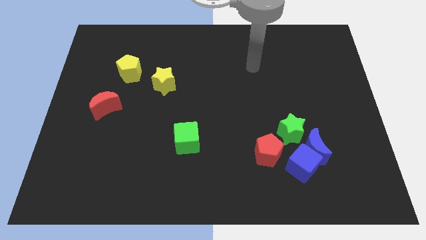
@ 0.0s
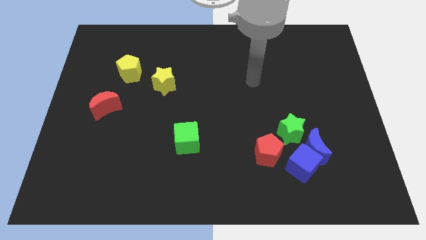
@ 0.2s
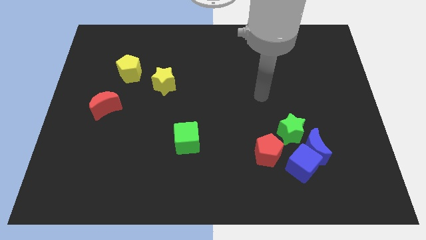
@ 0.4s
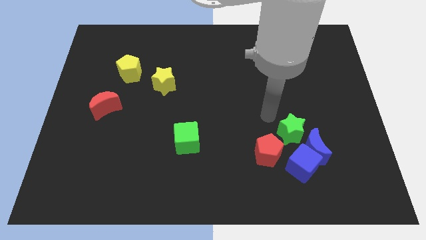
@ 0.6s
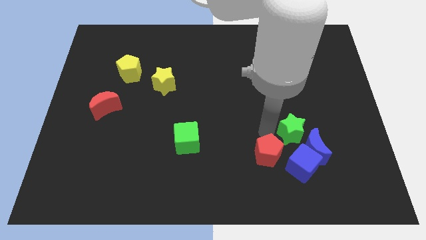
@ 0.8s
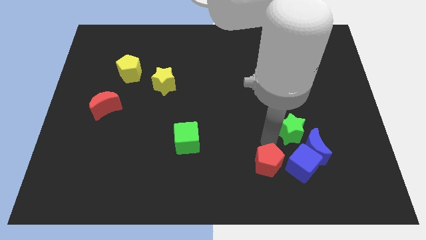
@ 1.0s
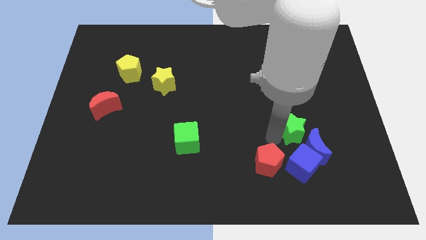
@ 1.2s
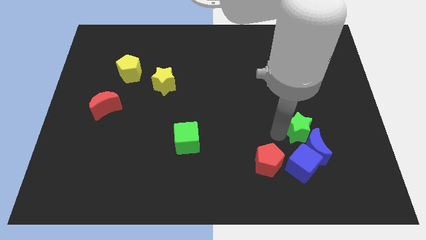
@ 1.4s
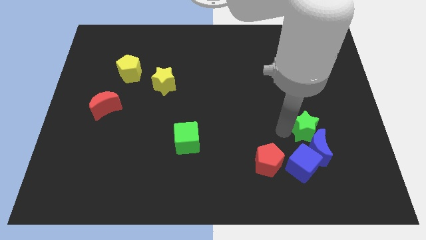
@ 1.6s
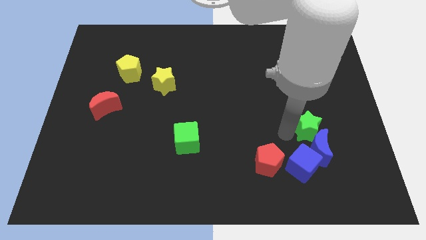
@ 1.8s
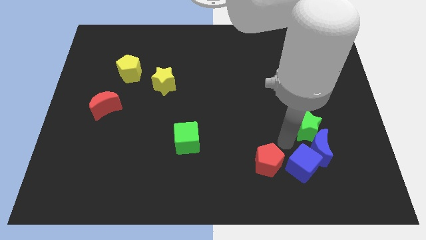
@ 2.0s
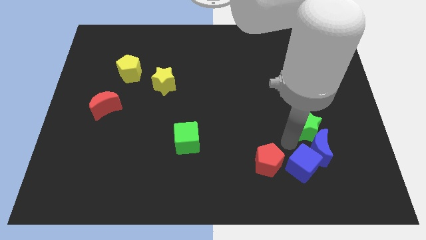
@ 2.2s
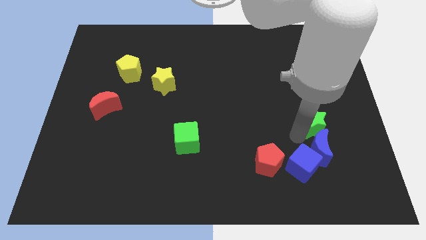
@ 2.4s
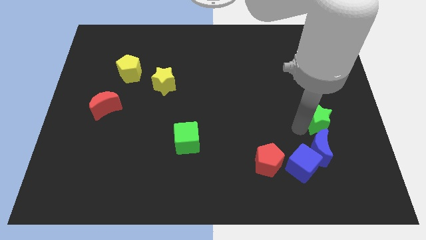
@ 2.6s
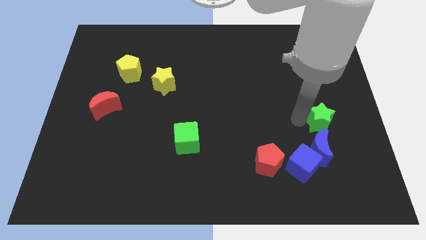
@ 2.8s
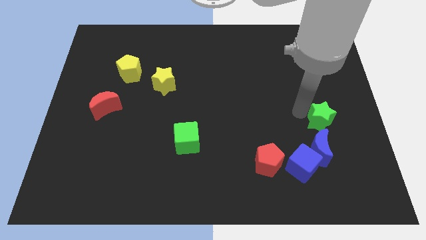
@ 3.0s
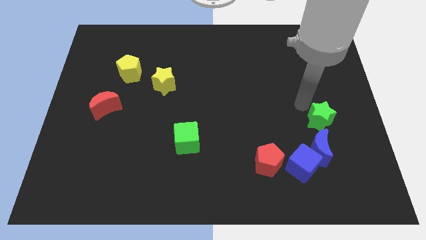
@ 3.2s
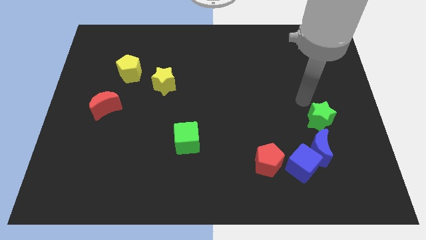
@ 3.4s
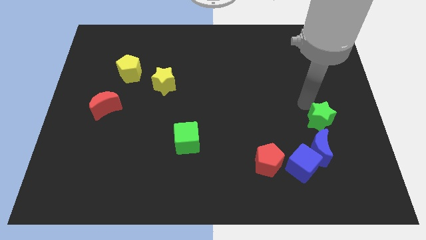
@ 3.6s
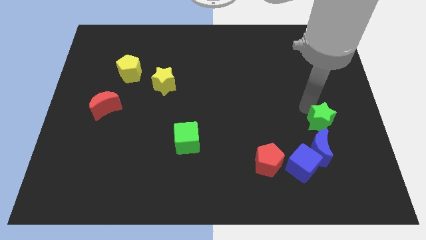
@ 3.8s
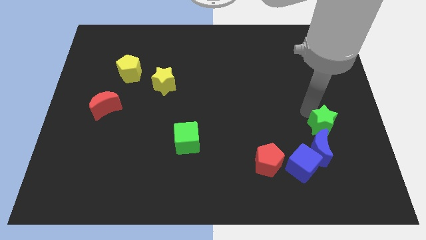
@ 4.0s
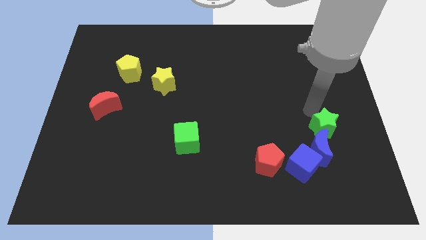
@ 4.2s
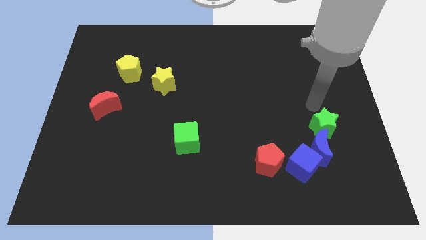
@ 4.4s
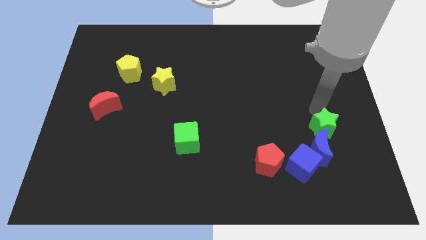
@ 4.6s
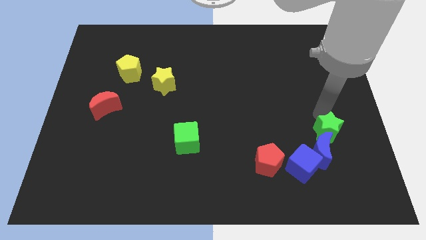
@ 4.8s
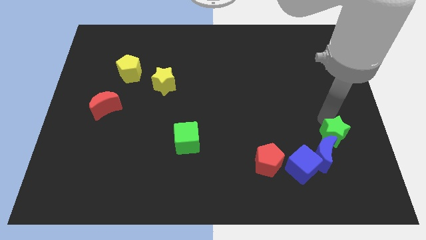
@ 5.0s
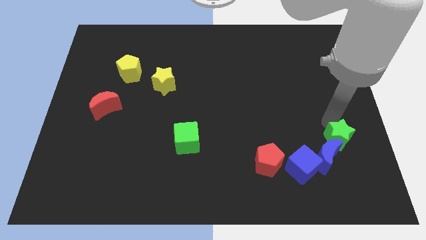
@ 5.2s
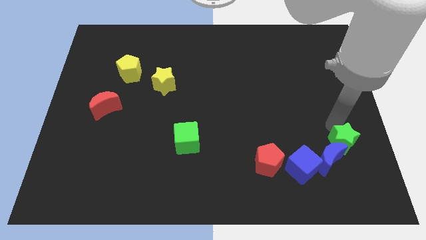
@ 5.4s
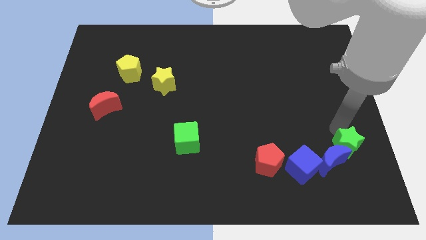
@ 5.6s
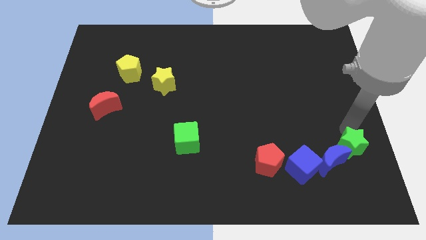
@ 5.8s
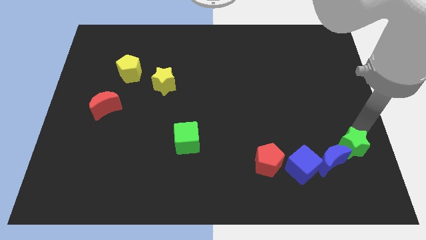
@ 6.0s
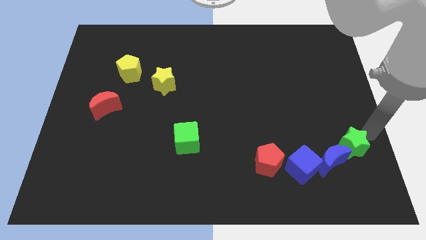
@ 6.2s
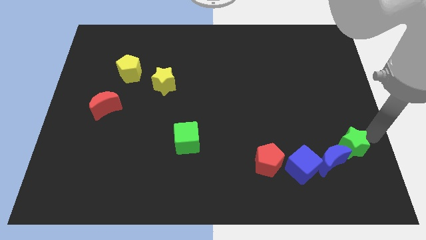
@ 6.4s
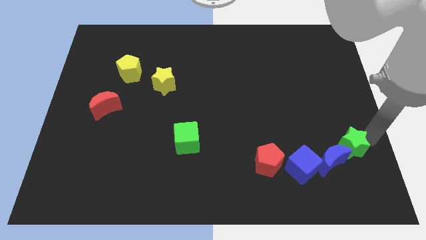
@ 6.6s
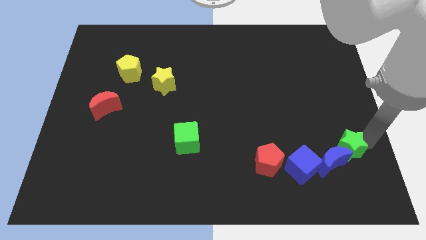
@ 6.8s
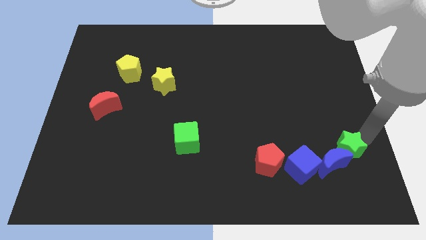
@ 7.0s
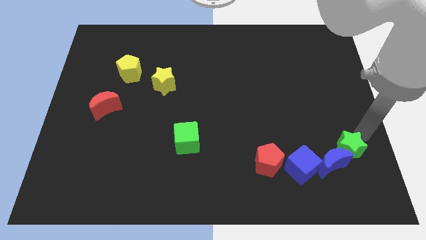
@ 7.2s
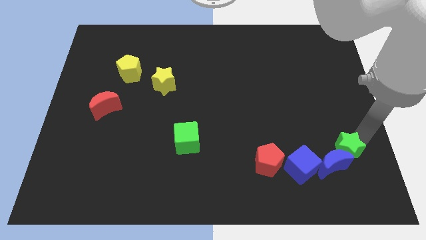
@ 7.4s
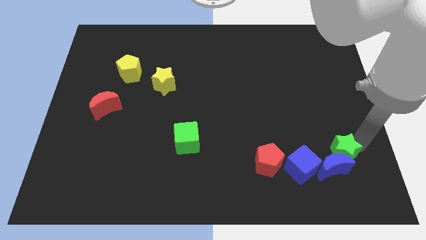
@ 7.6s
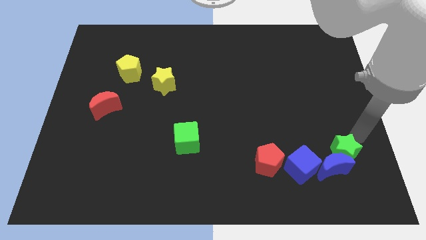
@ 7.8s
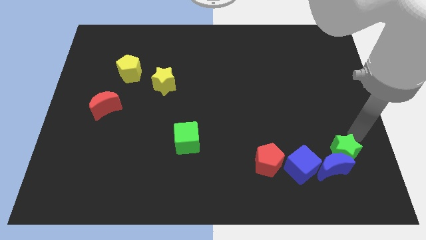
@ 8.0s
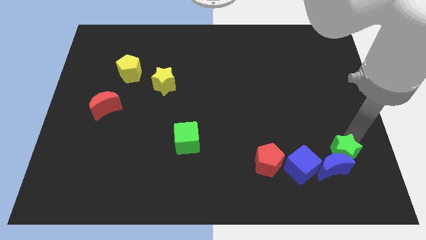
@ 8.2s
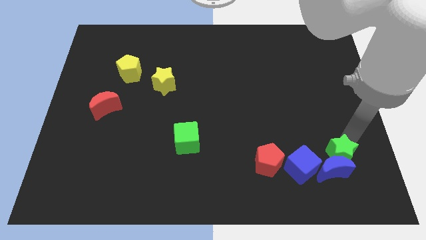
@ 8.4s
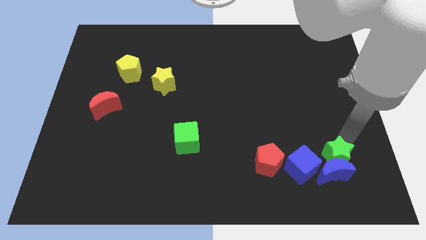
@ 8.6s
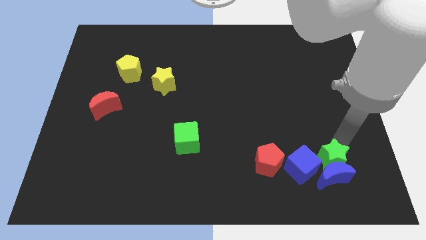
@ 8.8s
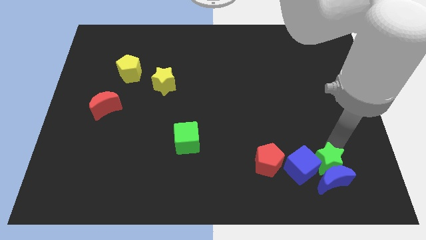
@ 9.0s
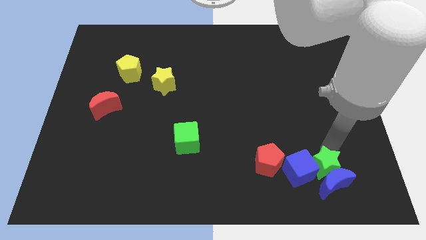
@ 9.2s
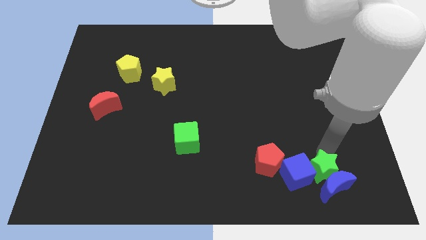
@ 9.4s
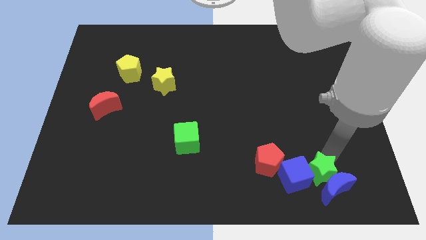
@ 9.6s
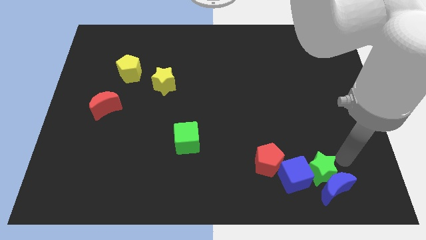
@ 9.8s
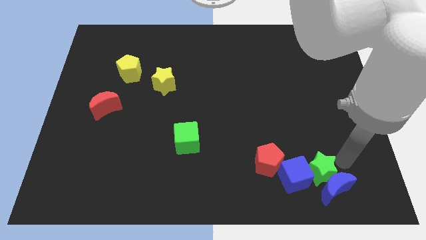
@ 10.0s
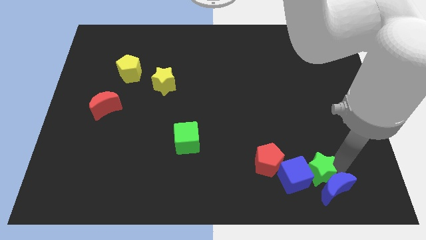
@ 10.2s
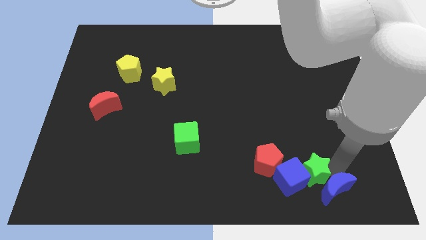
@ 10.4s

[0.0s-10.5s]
put the green star diagonally down and to the right of the red pentagon

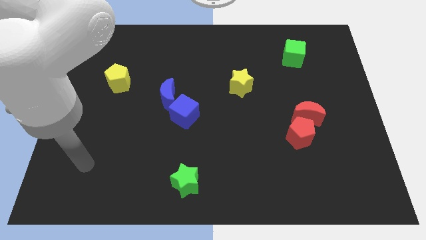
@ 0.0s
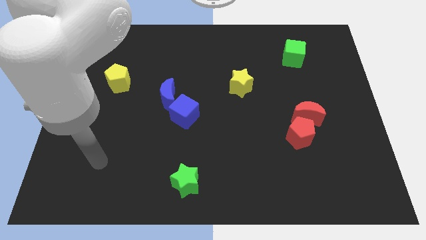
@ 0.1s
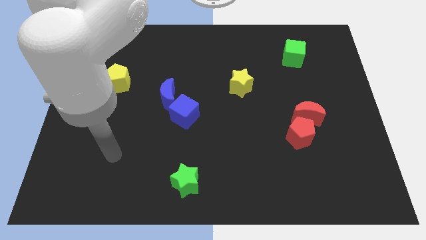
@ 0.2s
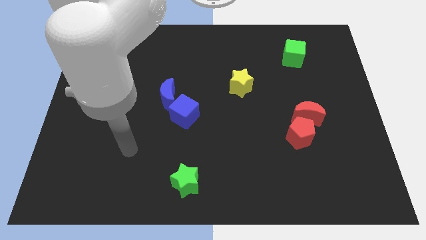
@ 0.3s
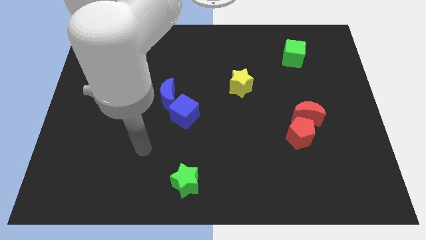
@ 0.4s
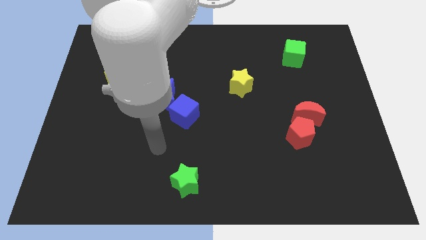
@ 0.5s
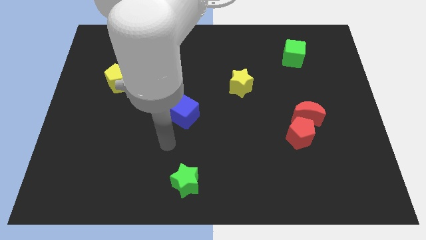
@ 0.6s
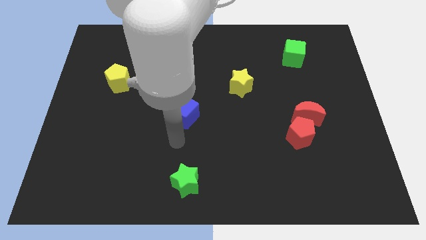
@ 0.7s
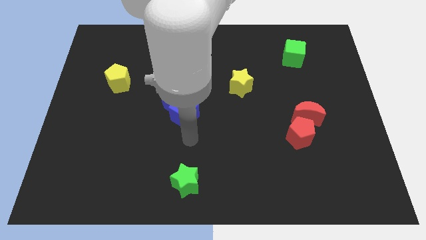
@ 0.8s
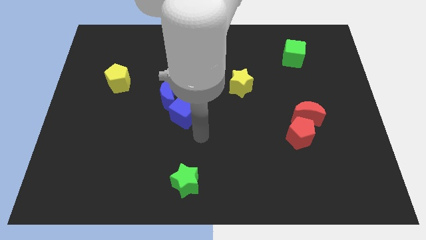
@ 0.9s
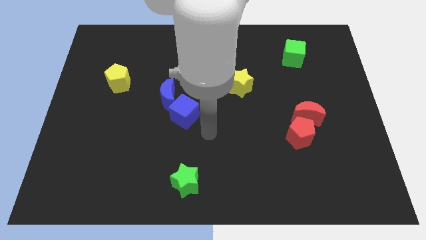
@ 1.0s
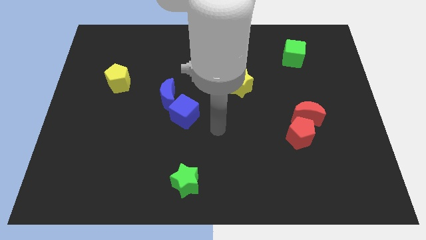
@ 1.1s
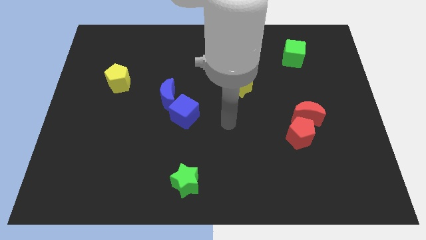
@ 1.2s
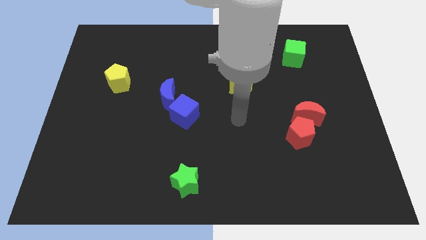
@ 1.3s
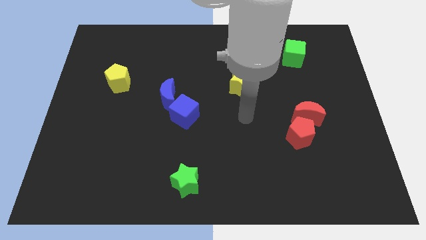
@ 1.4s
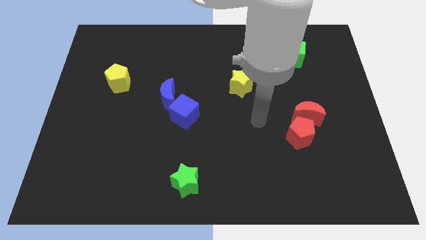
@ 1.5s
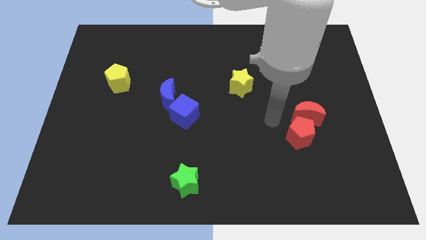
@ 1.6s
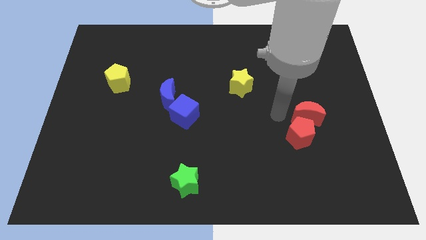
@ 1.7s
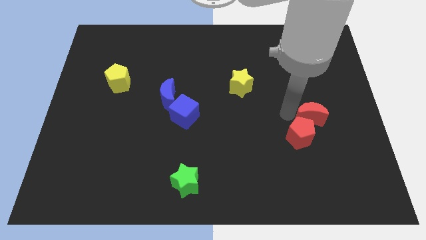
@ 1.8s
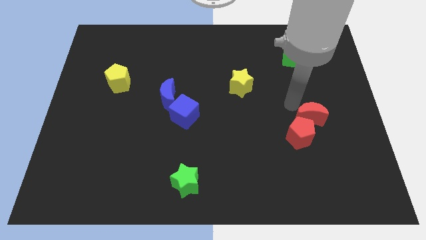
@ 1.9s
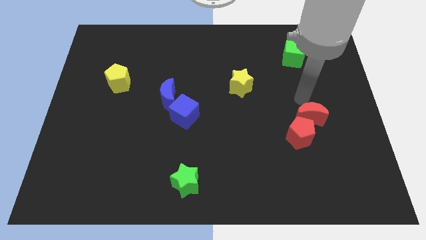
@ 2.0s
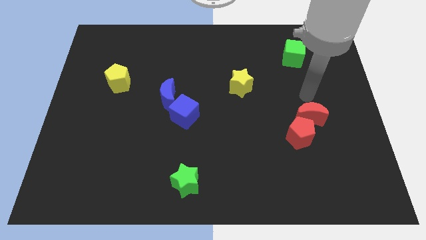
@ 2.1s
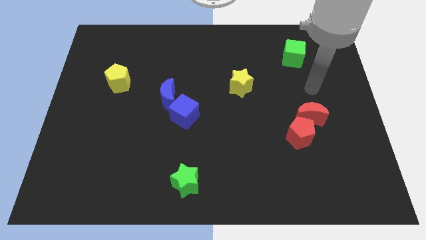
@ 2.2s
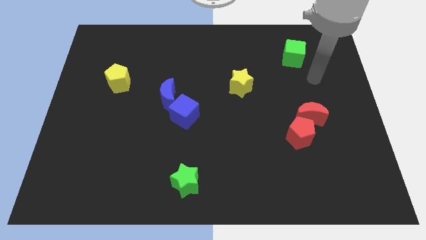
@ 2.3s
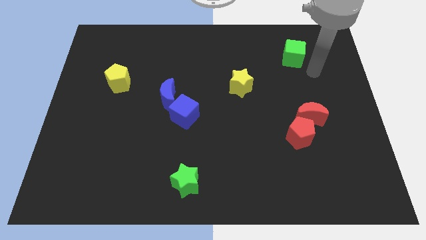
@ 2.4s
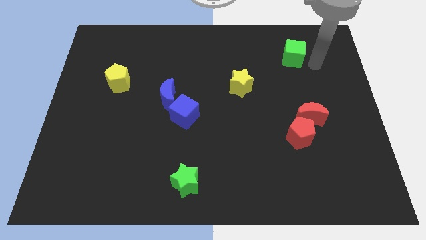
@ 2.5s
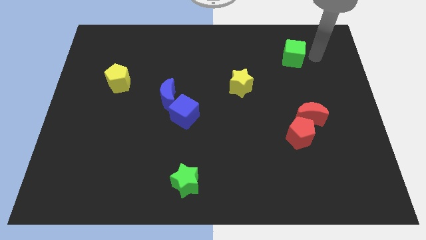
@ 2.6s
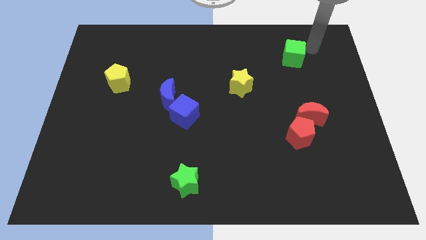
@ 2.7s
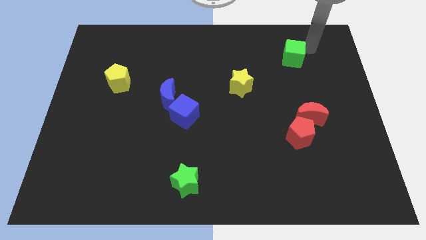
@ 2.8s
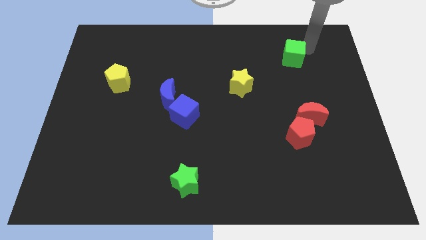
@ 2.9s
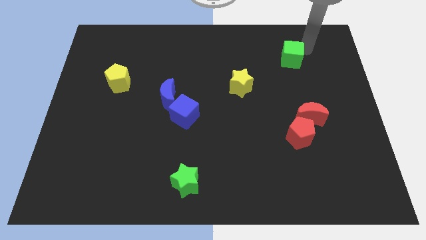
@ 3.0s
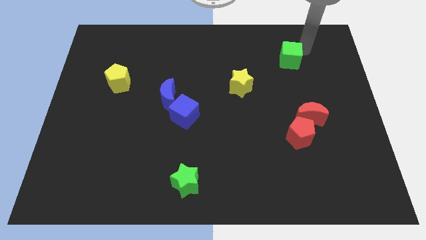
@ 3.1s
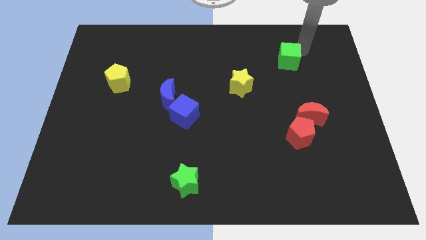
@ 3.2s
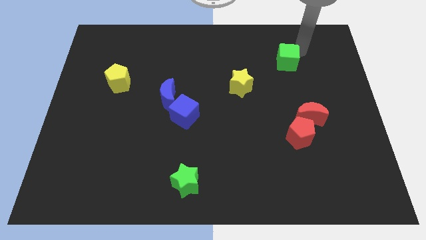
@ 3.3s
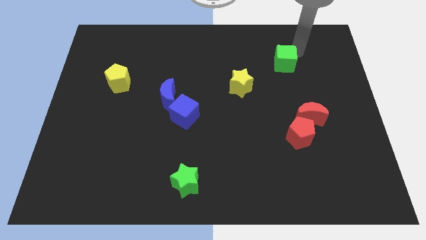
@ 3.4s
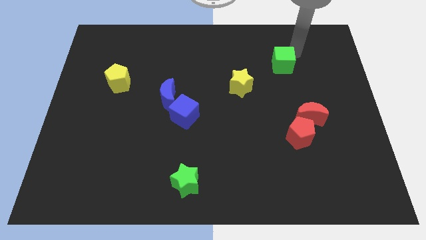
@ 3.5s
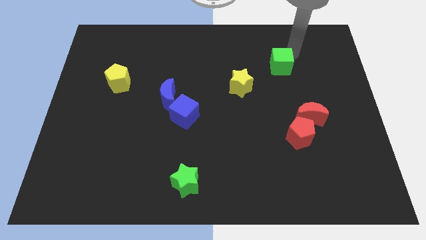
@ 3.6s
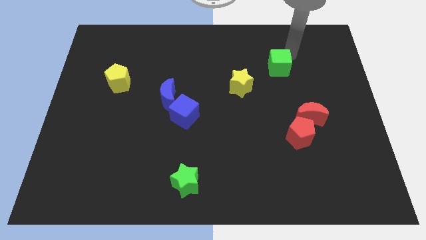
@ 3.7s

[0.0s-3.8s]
put the green cube diagonally up and to the right of the yellow star
